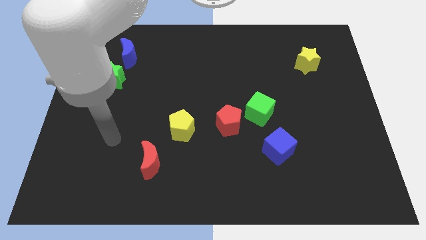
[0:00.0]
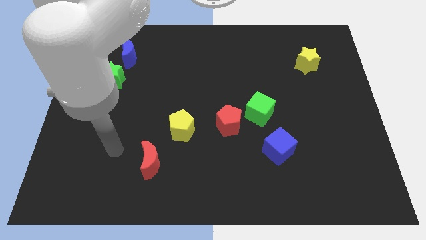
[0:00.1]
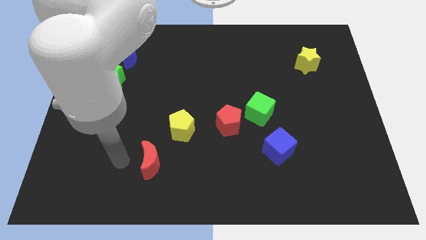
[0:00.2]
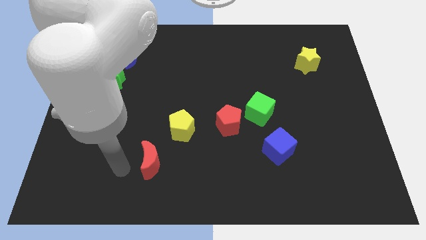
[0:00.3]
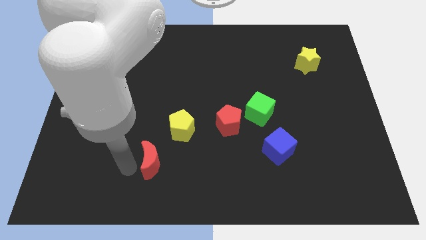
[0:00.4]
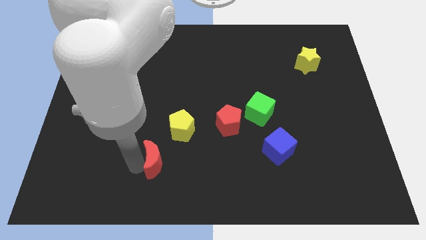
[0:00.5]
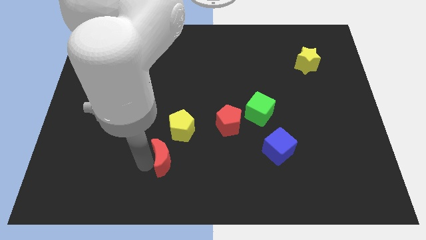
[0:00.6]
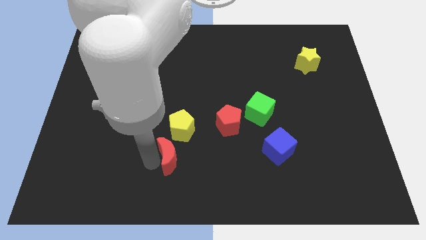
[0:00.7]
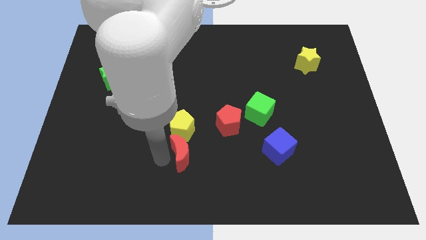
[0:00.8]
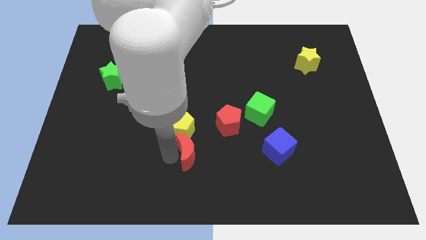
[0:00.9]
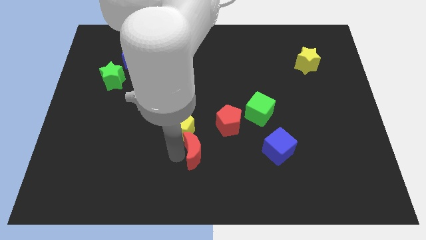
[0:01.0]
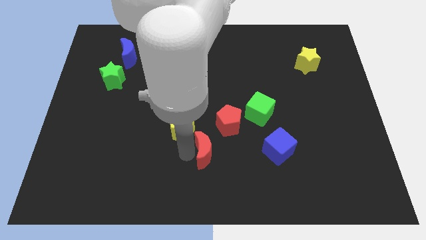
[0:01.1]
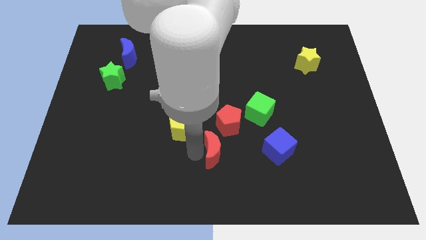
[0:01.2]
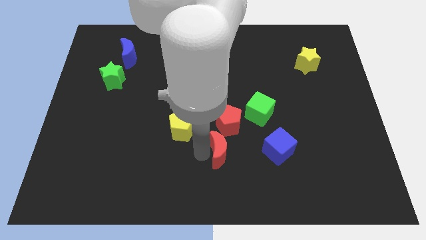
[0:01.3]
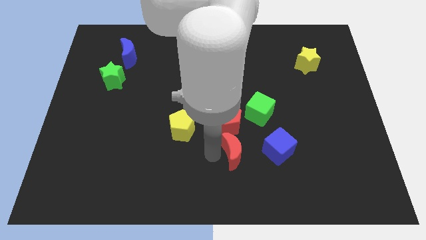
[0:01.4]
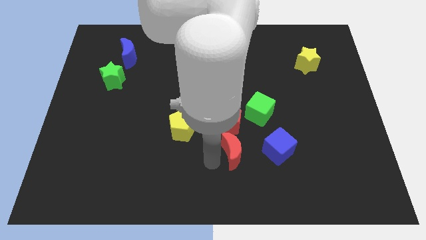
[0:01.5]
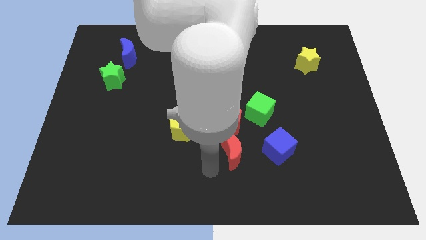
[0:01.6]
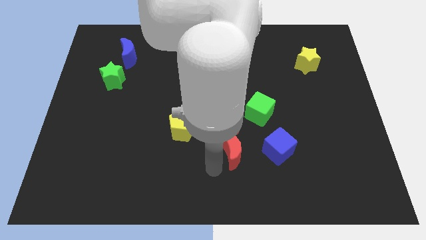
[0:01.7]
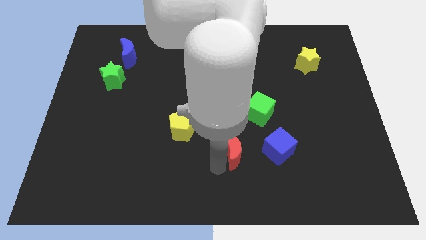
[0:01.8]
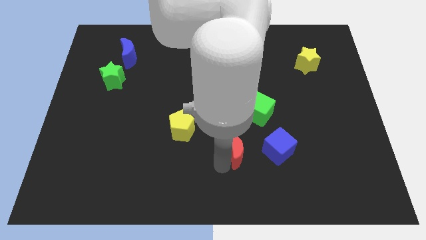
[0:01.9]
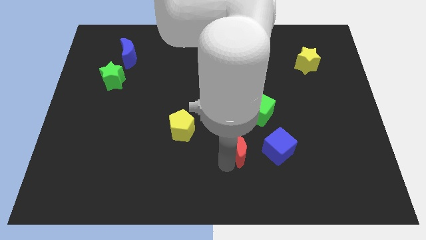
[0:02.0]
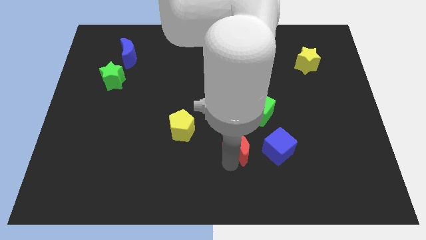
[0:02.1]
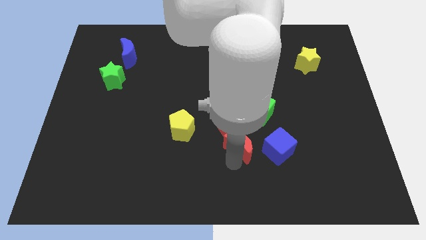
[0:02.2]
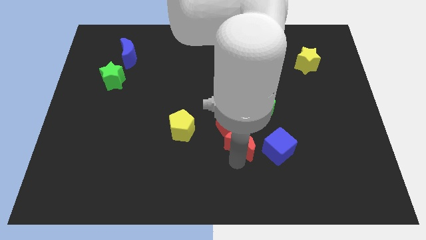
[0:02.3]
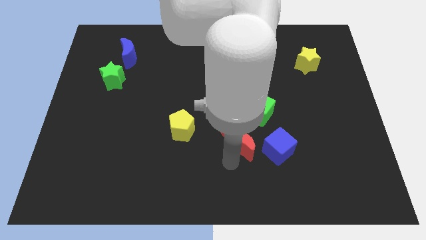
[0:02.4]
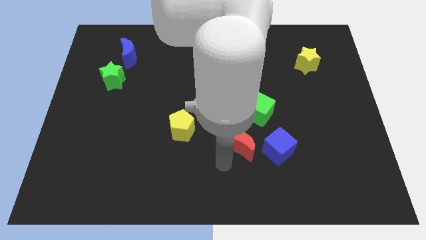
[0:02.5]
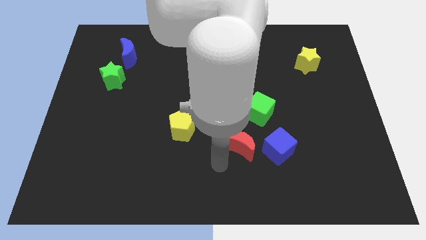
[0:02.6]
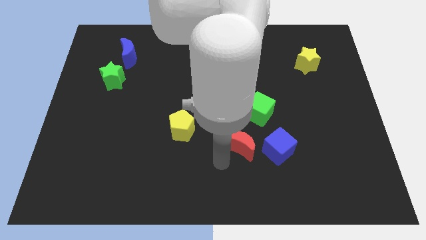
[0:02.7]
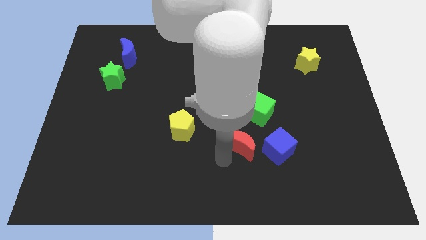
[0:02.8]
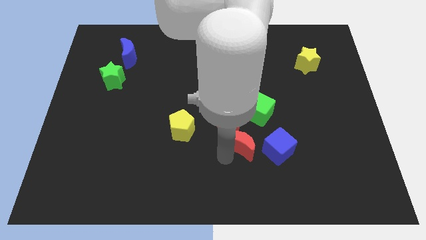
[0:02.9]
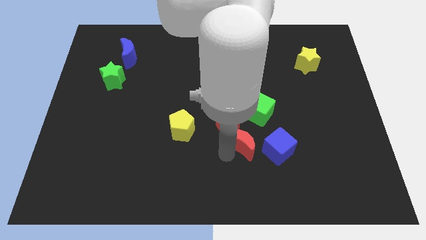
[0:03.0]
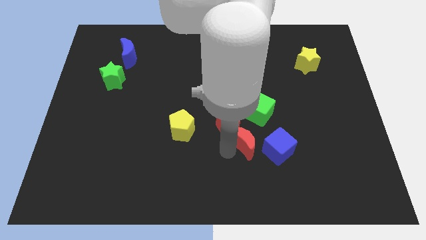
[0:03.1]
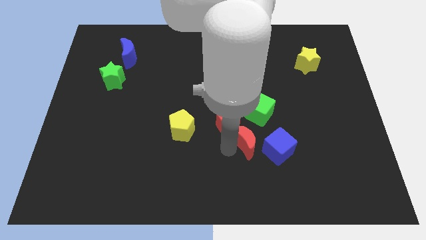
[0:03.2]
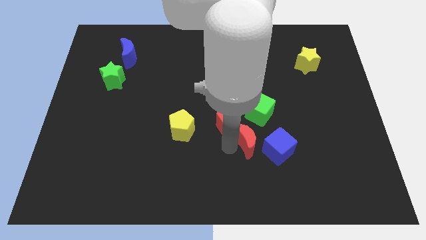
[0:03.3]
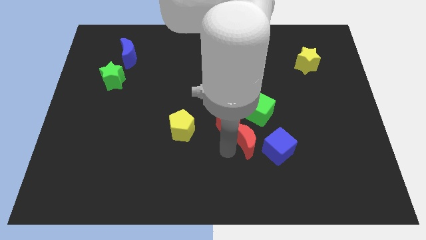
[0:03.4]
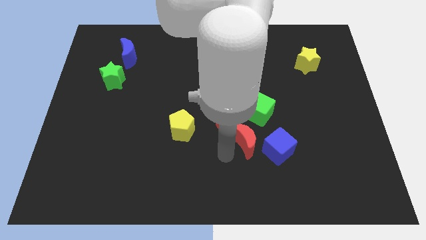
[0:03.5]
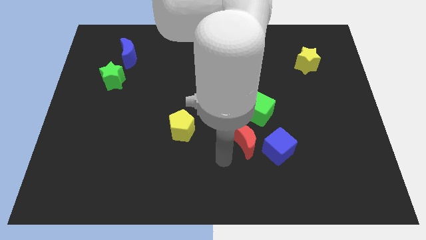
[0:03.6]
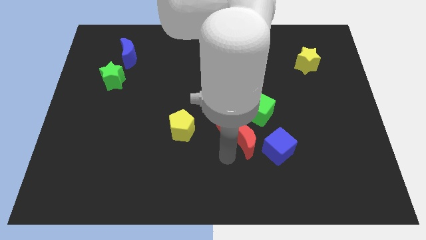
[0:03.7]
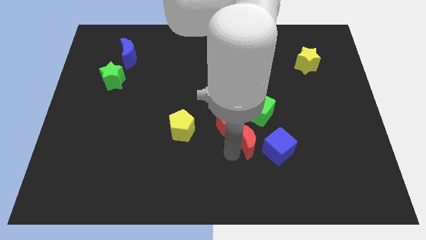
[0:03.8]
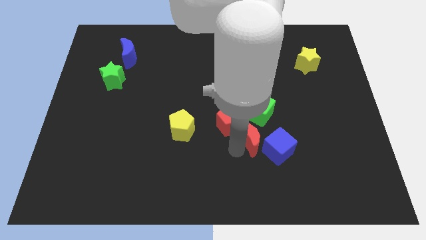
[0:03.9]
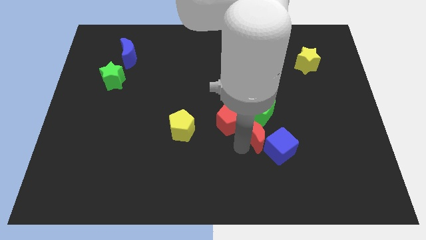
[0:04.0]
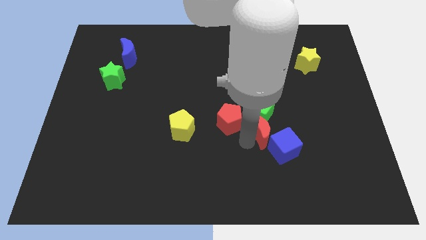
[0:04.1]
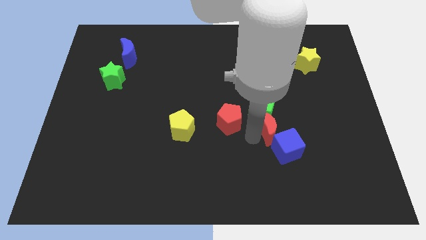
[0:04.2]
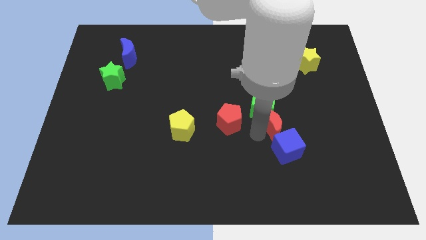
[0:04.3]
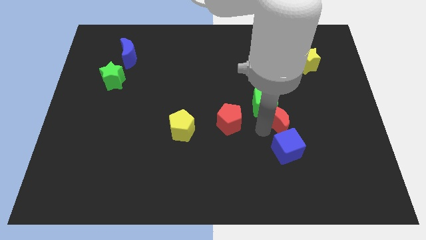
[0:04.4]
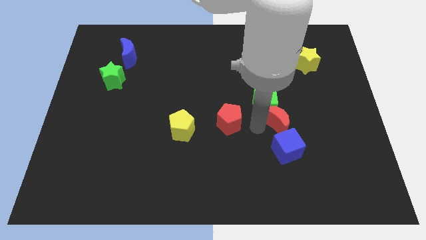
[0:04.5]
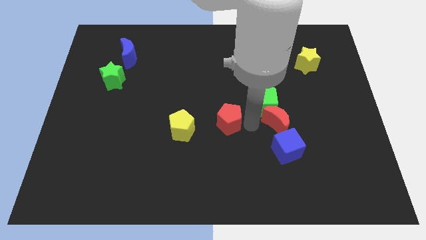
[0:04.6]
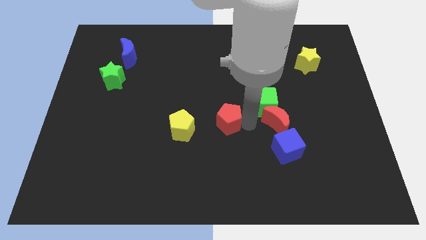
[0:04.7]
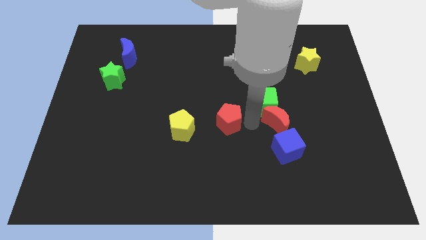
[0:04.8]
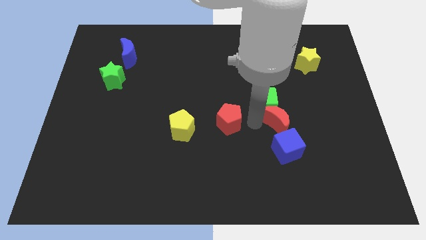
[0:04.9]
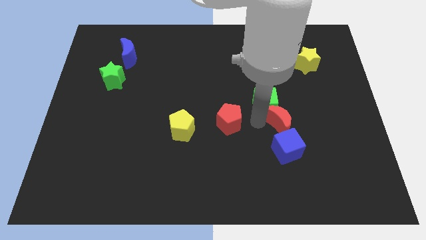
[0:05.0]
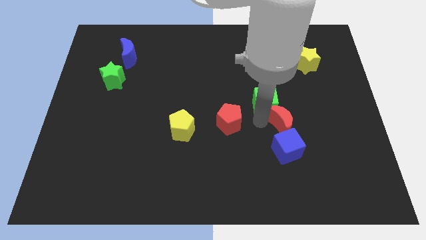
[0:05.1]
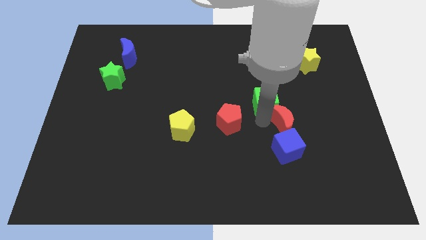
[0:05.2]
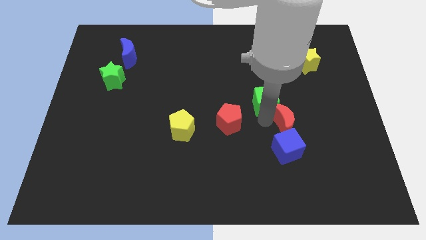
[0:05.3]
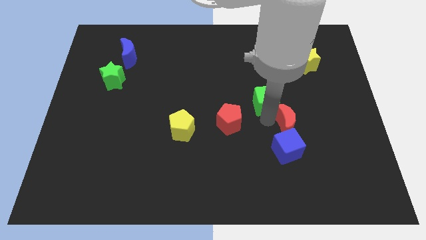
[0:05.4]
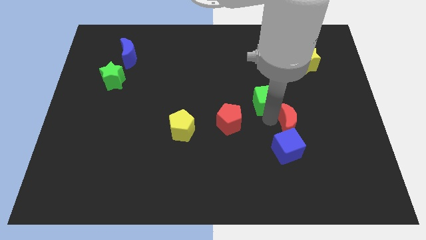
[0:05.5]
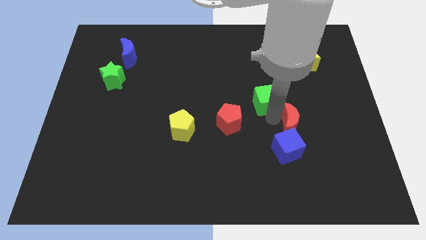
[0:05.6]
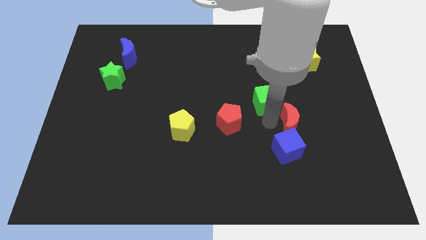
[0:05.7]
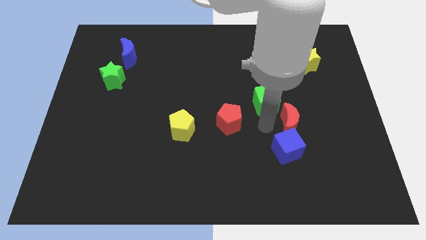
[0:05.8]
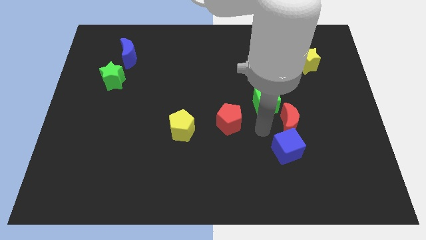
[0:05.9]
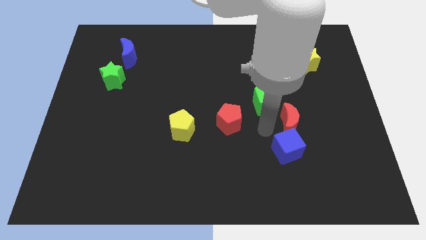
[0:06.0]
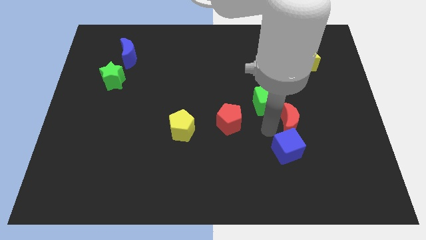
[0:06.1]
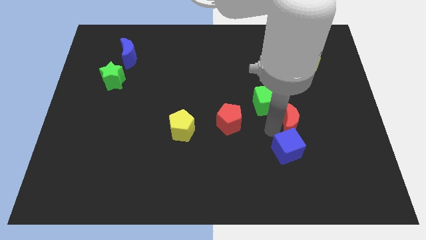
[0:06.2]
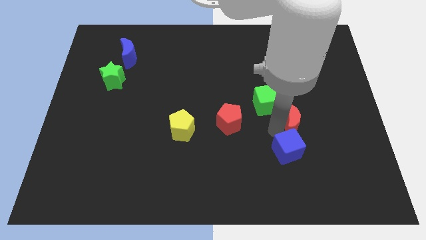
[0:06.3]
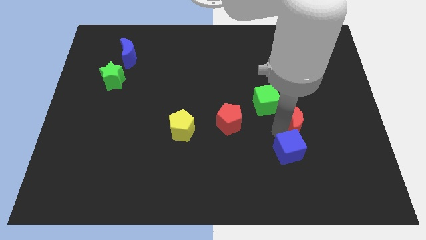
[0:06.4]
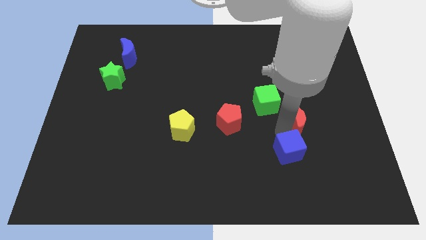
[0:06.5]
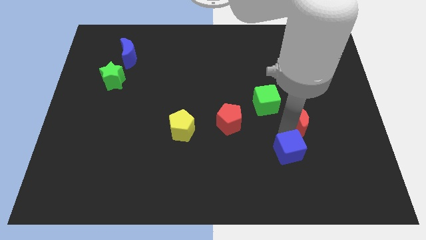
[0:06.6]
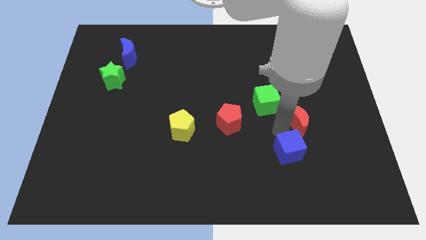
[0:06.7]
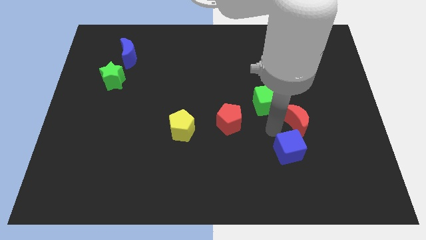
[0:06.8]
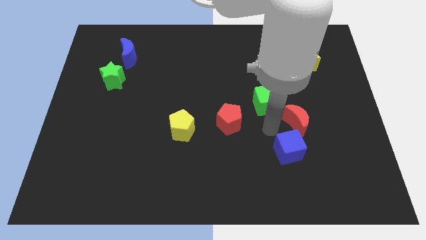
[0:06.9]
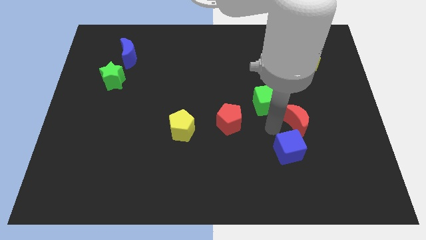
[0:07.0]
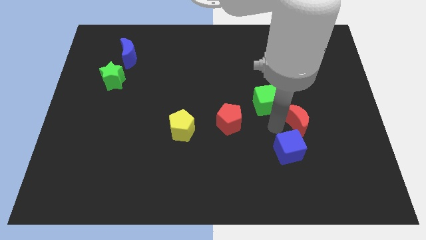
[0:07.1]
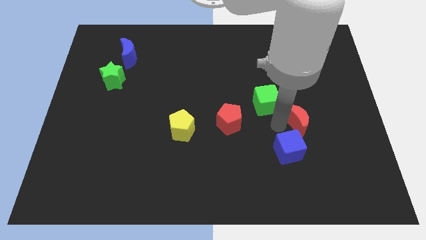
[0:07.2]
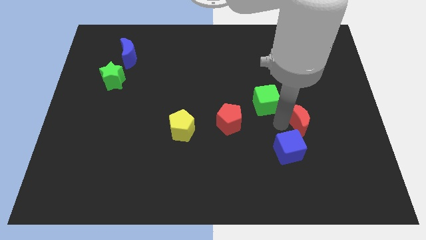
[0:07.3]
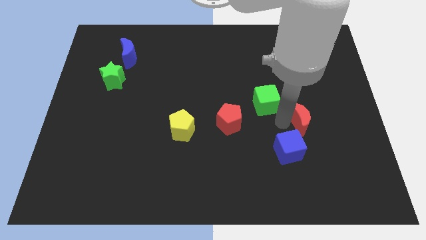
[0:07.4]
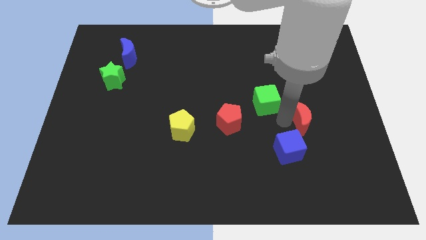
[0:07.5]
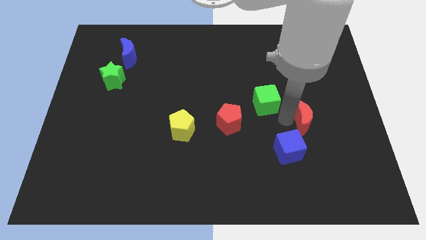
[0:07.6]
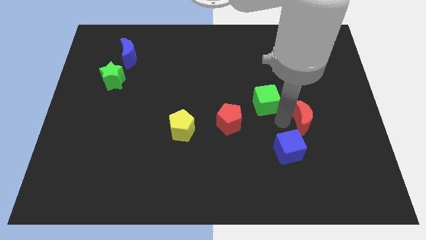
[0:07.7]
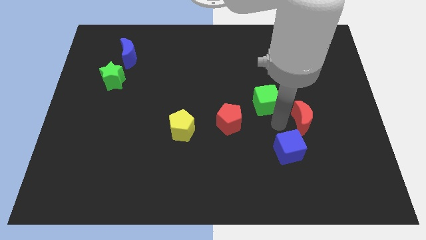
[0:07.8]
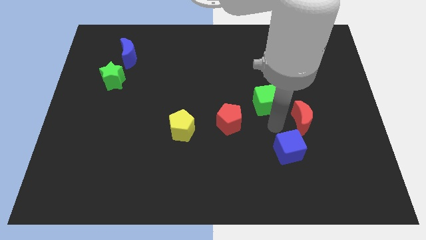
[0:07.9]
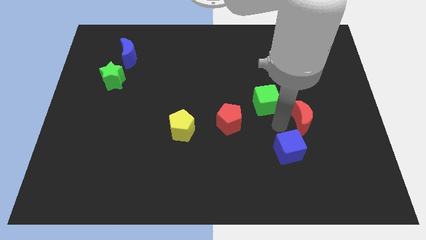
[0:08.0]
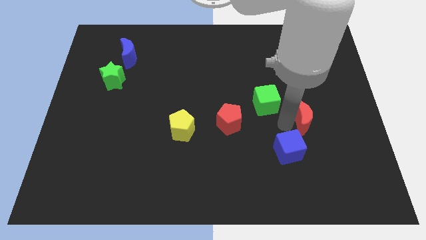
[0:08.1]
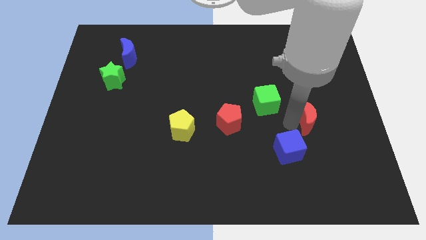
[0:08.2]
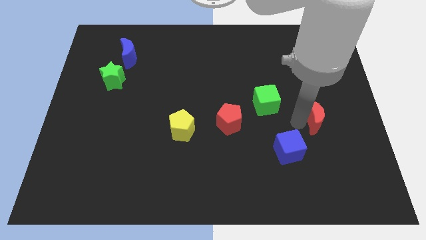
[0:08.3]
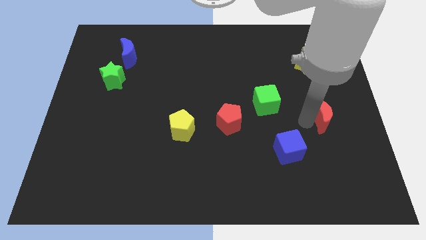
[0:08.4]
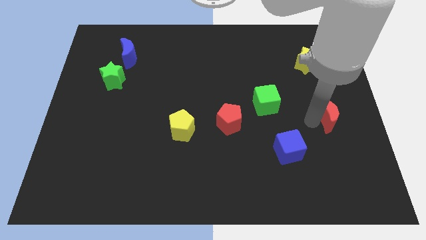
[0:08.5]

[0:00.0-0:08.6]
put the red moon to the center right
